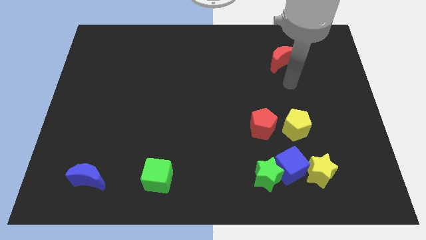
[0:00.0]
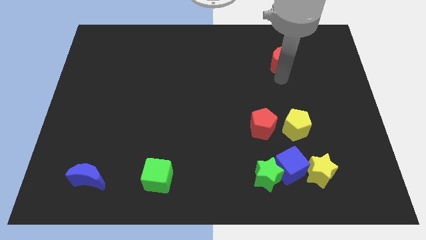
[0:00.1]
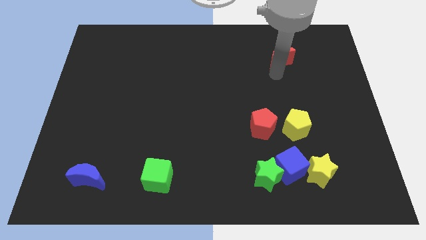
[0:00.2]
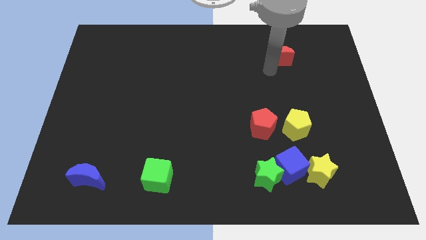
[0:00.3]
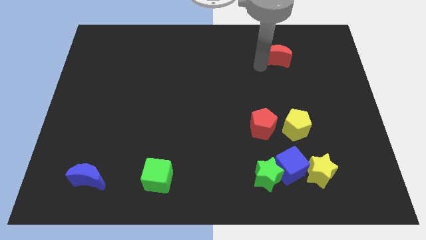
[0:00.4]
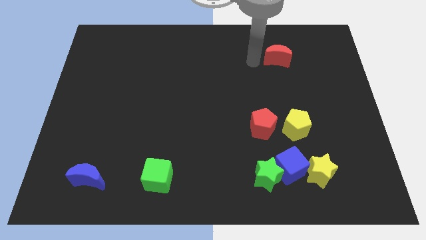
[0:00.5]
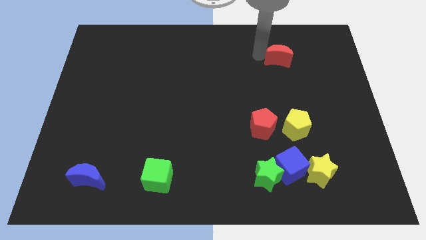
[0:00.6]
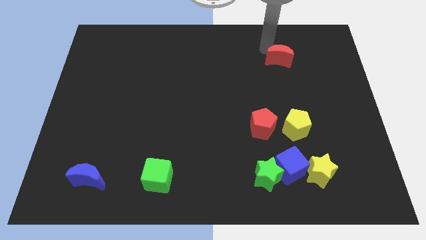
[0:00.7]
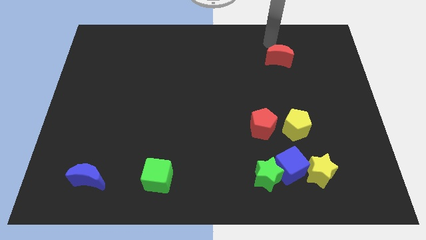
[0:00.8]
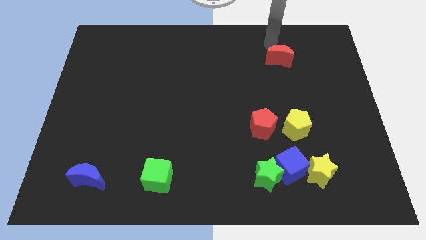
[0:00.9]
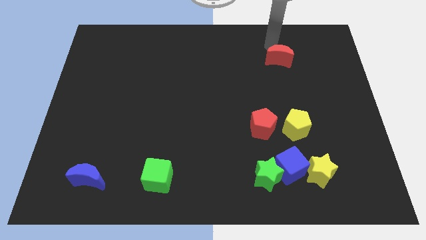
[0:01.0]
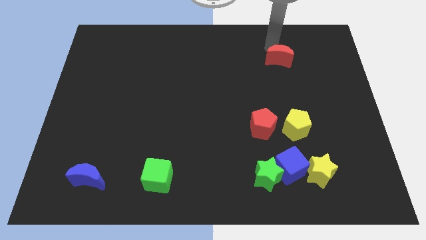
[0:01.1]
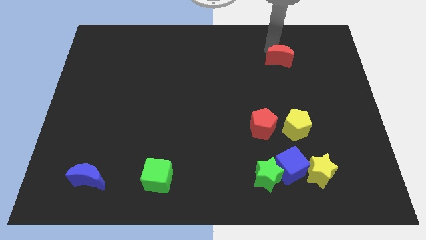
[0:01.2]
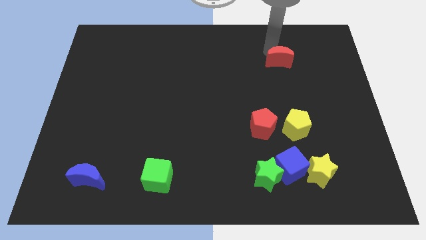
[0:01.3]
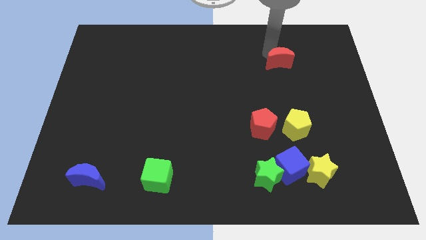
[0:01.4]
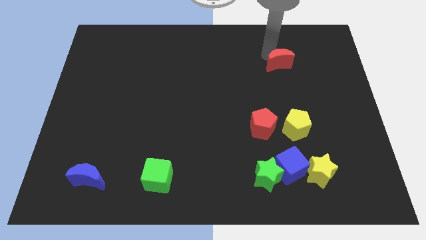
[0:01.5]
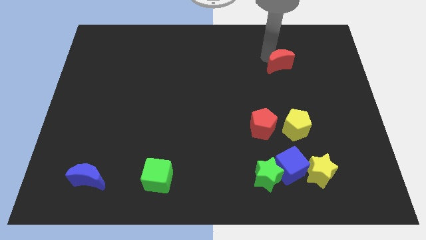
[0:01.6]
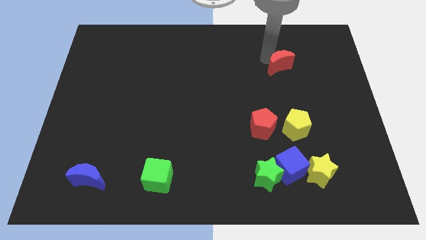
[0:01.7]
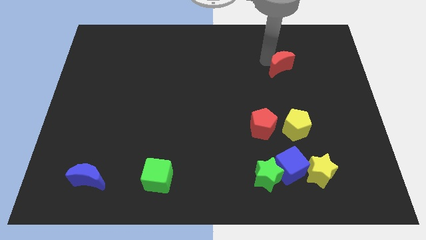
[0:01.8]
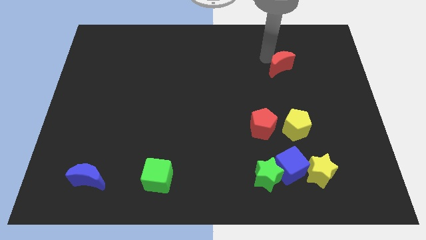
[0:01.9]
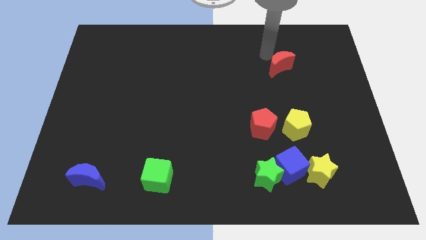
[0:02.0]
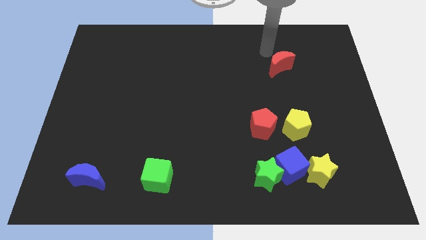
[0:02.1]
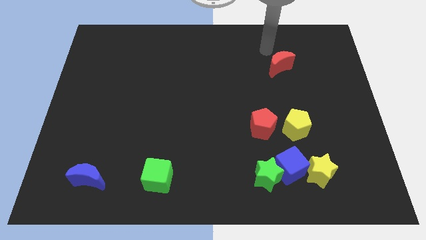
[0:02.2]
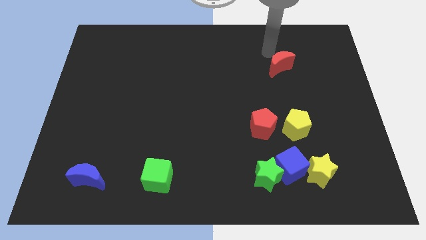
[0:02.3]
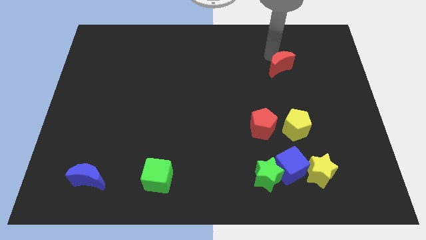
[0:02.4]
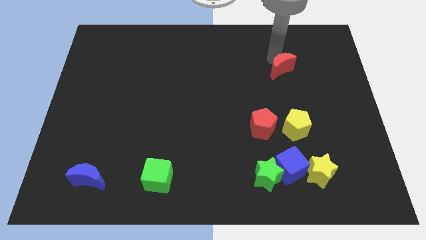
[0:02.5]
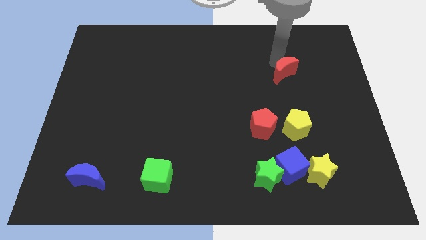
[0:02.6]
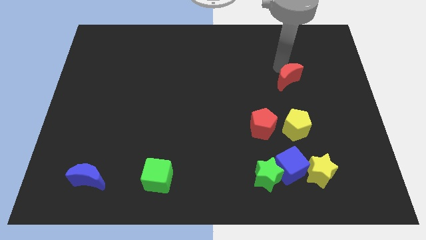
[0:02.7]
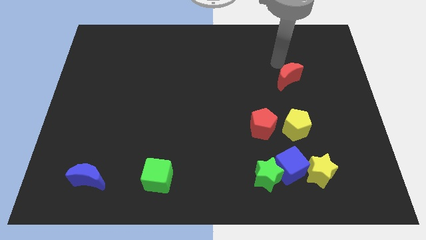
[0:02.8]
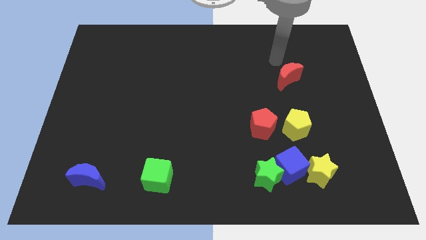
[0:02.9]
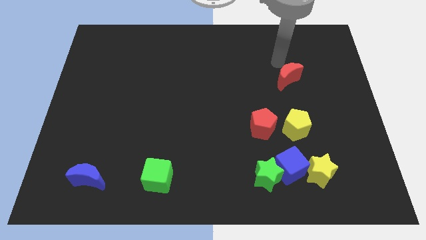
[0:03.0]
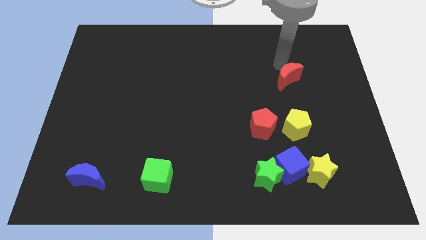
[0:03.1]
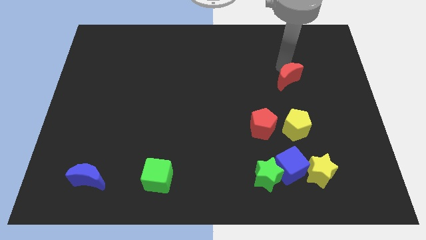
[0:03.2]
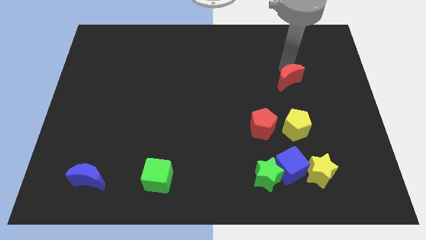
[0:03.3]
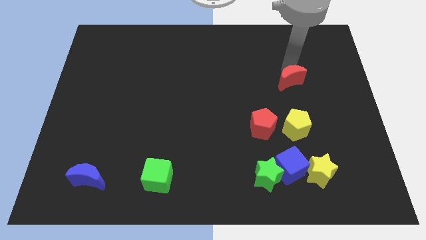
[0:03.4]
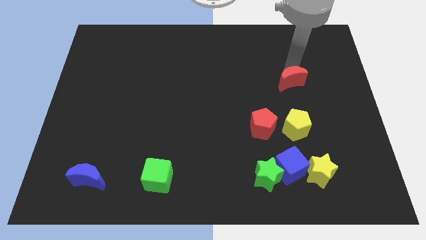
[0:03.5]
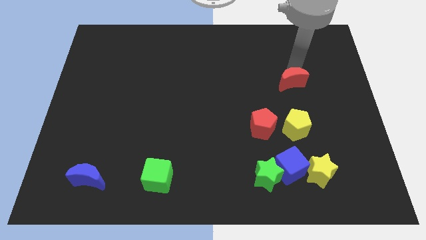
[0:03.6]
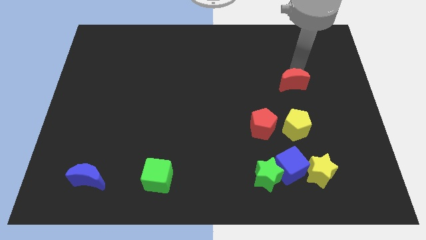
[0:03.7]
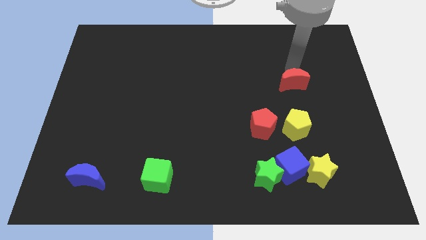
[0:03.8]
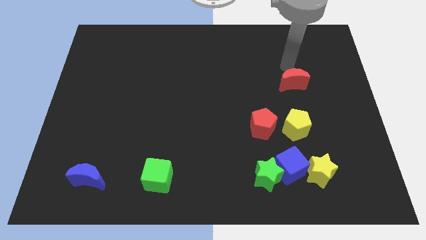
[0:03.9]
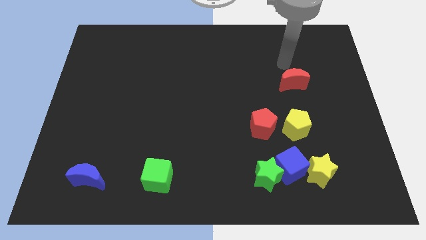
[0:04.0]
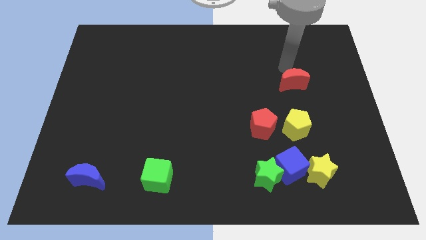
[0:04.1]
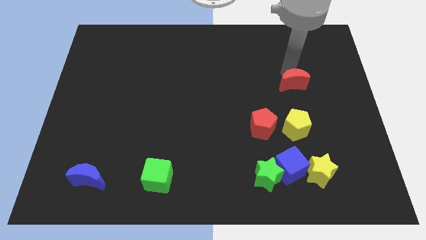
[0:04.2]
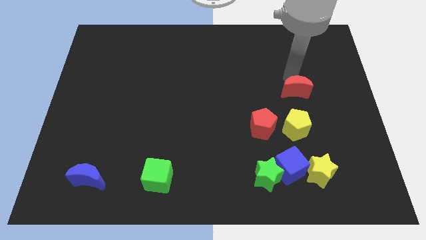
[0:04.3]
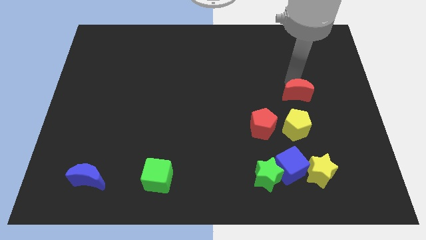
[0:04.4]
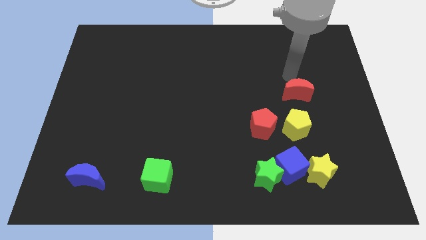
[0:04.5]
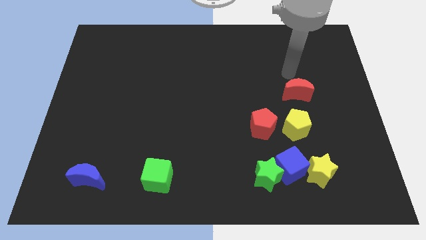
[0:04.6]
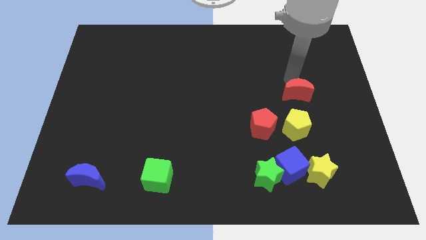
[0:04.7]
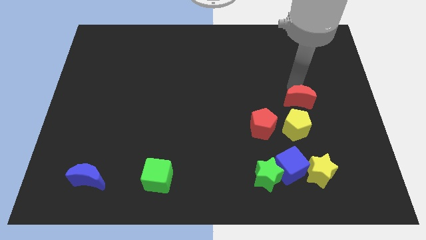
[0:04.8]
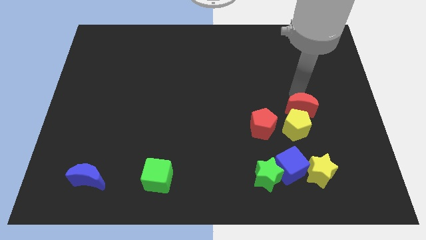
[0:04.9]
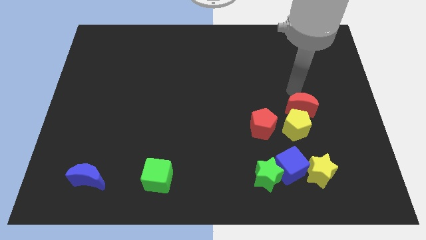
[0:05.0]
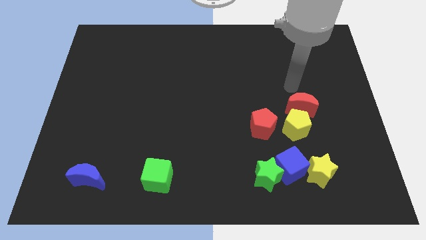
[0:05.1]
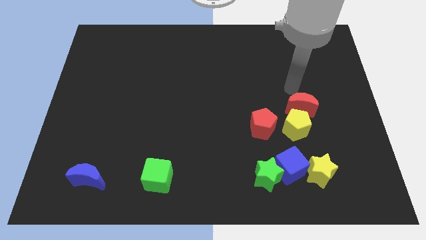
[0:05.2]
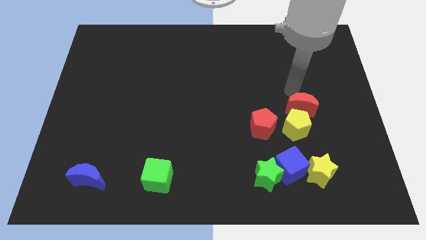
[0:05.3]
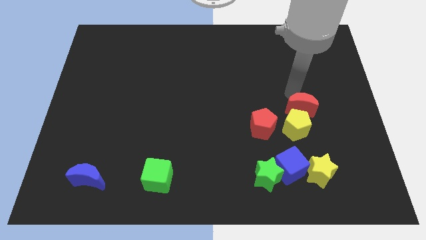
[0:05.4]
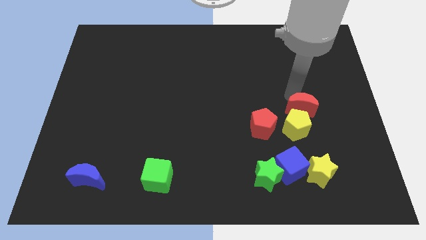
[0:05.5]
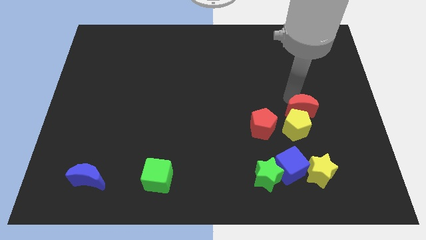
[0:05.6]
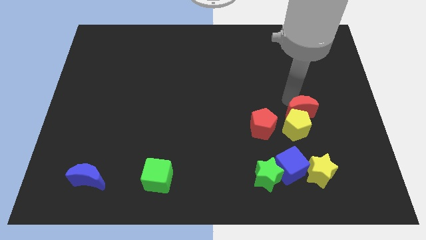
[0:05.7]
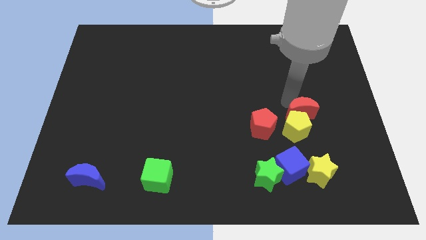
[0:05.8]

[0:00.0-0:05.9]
slide the red moon to the top side of the yellow star
